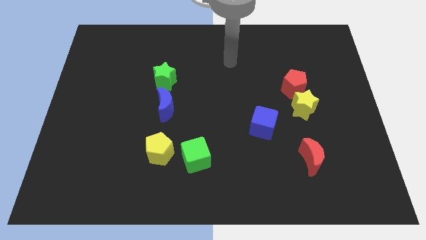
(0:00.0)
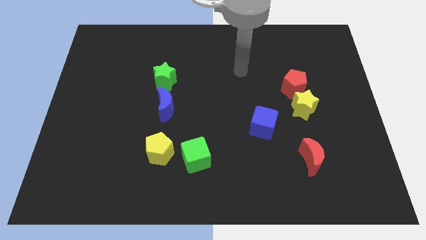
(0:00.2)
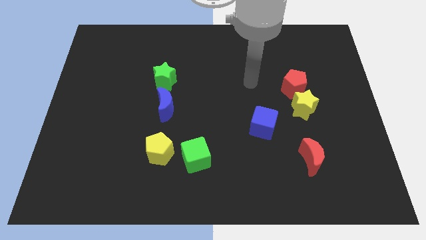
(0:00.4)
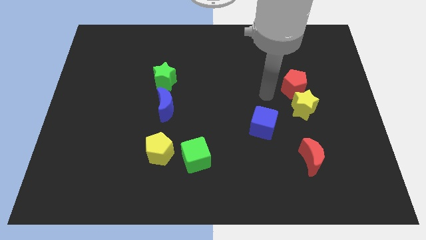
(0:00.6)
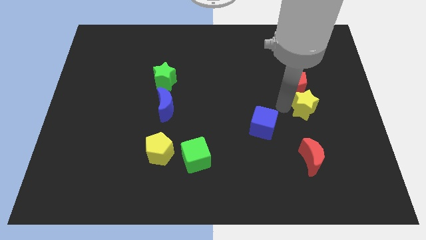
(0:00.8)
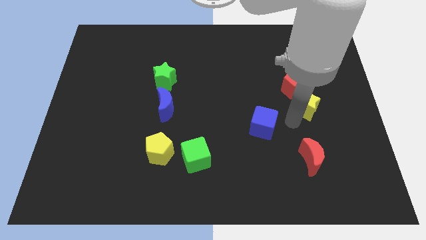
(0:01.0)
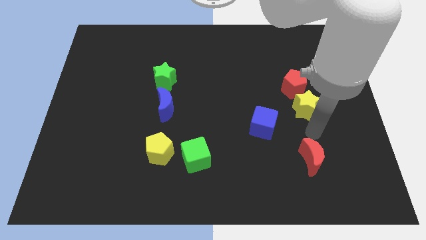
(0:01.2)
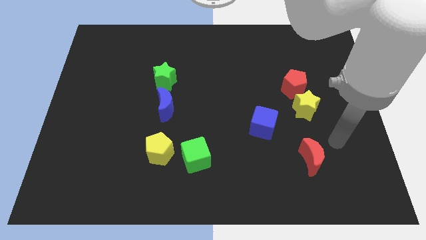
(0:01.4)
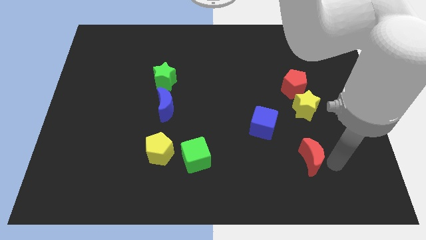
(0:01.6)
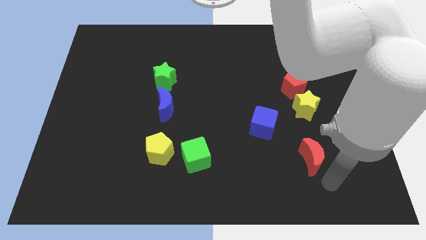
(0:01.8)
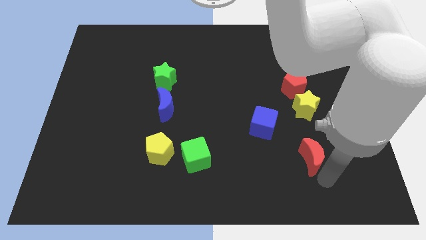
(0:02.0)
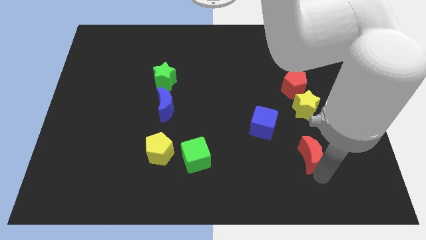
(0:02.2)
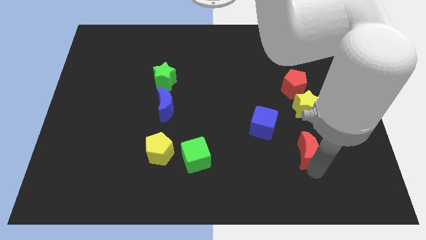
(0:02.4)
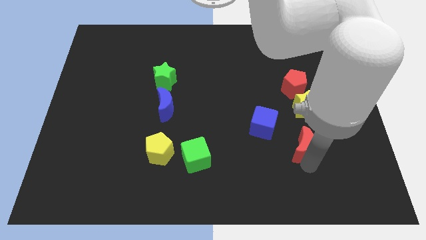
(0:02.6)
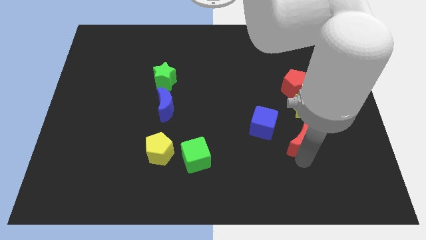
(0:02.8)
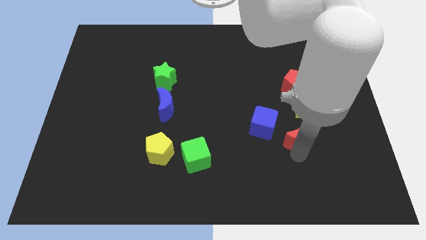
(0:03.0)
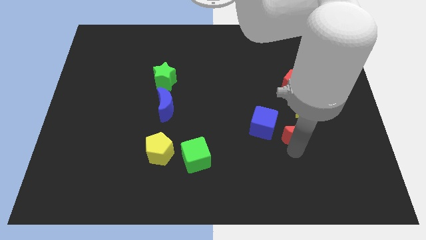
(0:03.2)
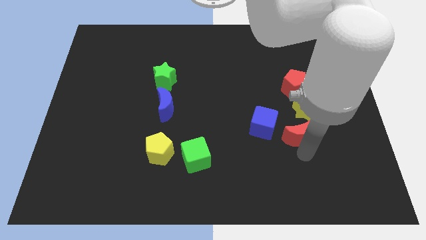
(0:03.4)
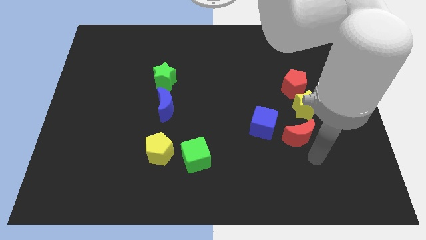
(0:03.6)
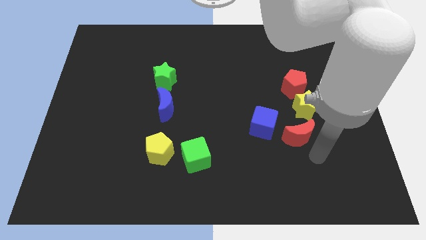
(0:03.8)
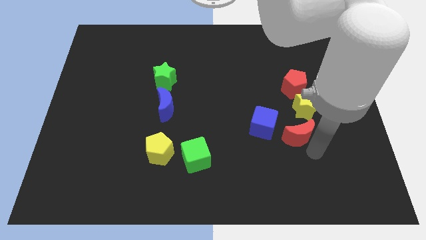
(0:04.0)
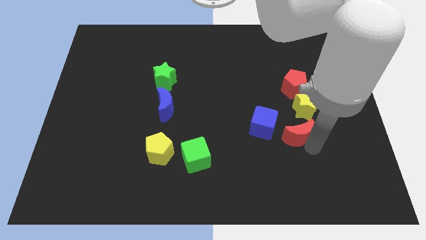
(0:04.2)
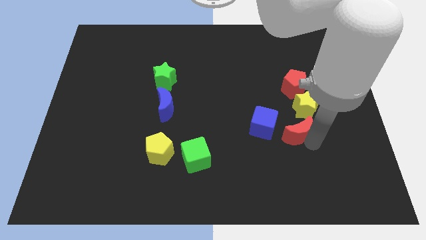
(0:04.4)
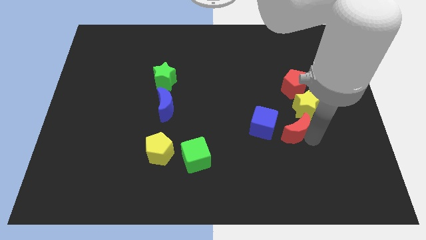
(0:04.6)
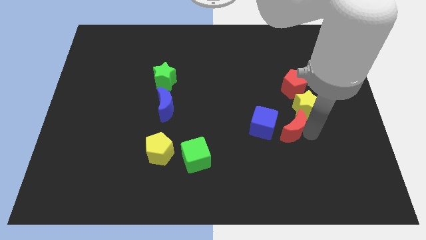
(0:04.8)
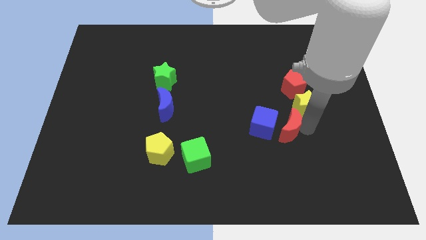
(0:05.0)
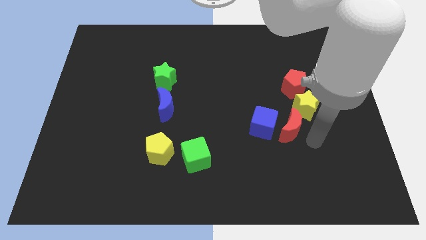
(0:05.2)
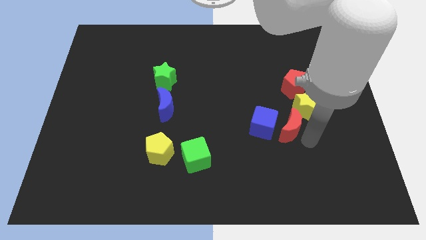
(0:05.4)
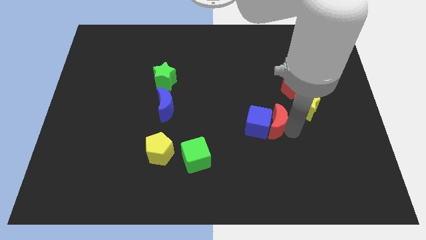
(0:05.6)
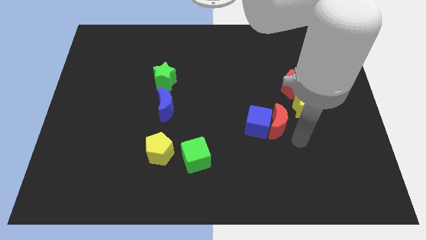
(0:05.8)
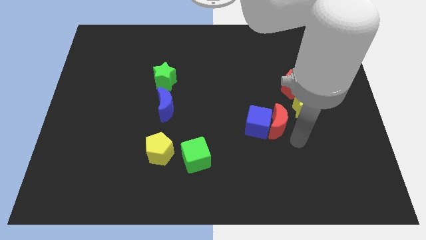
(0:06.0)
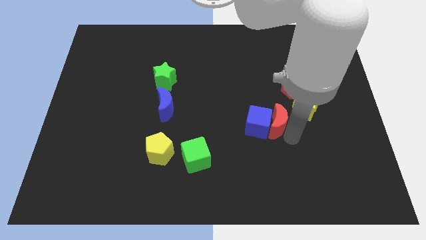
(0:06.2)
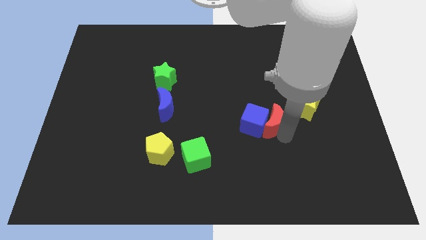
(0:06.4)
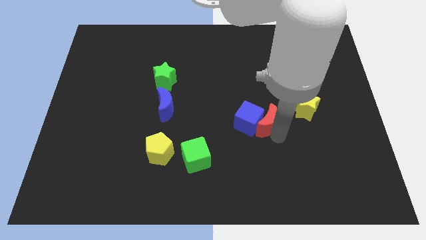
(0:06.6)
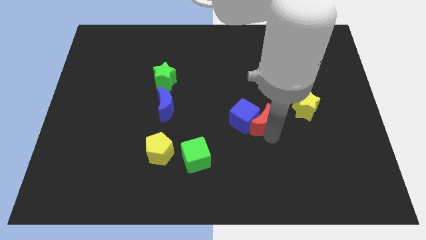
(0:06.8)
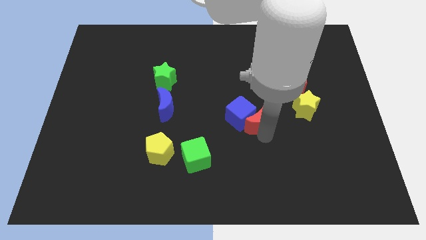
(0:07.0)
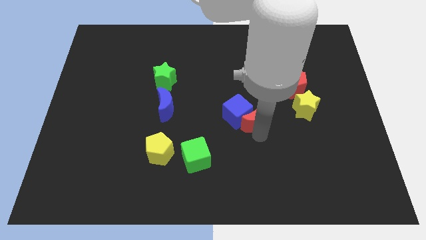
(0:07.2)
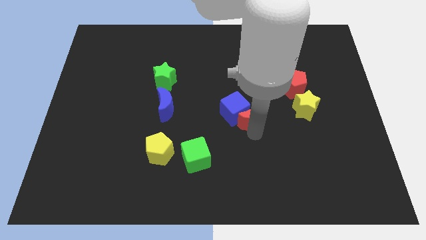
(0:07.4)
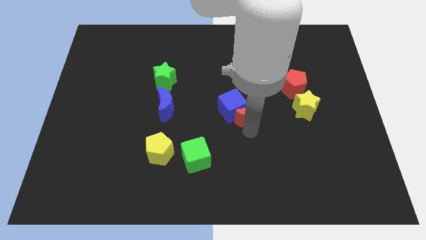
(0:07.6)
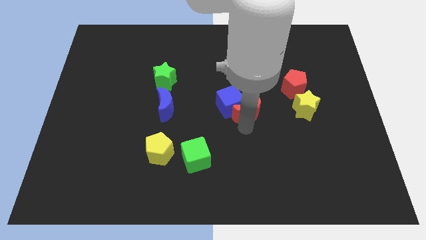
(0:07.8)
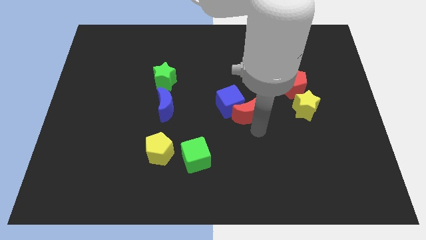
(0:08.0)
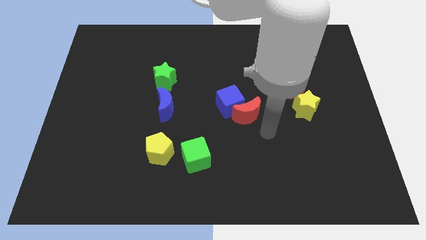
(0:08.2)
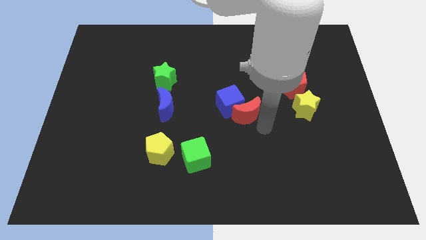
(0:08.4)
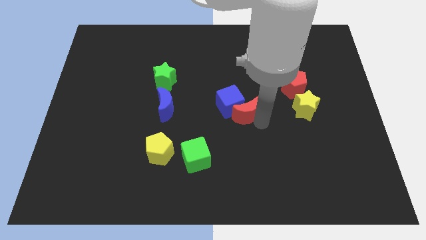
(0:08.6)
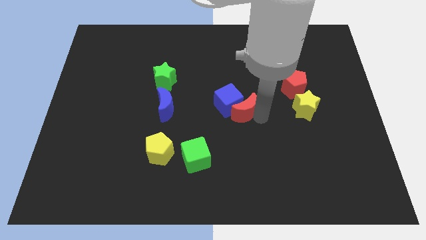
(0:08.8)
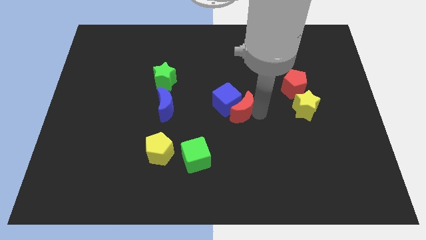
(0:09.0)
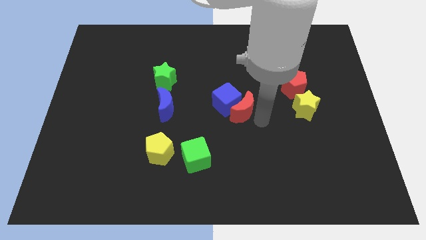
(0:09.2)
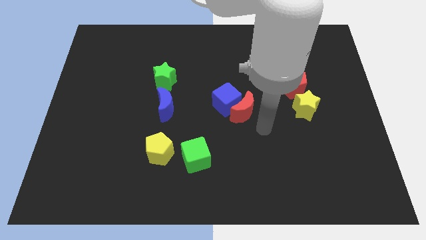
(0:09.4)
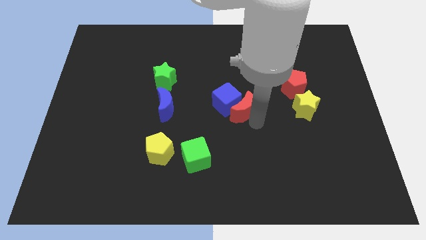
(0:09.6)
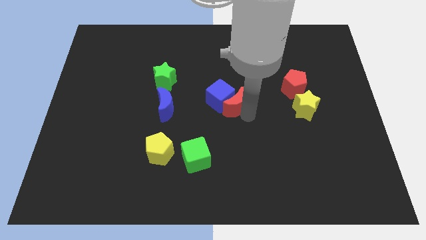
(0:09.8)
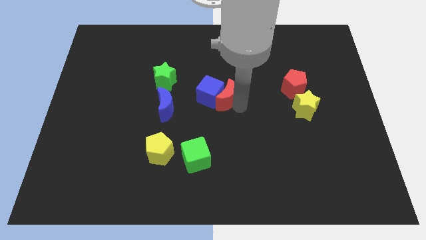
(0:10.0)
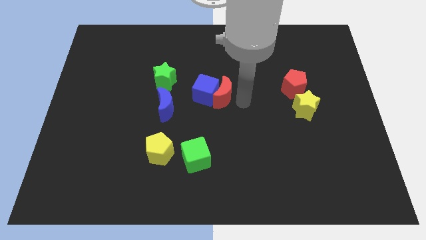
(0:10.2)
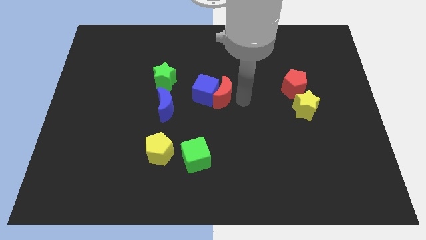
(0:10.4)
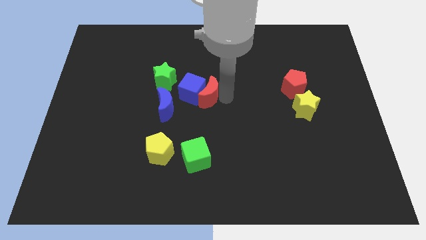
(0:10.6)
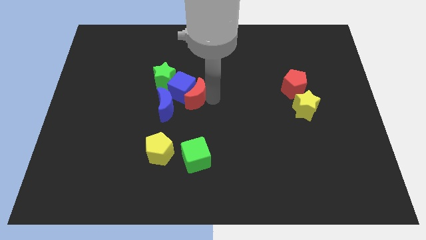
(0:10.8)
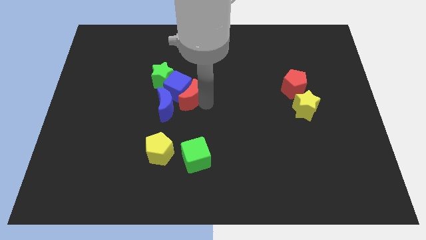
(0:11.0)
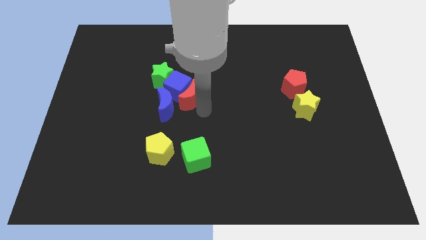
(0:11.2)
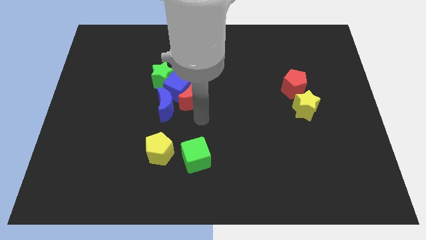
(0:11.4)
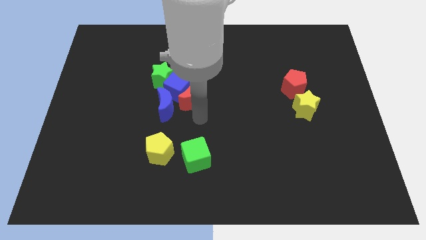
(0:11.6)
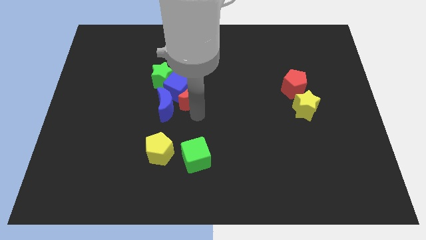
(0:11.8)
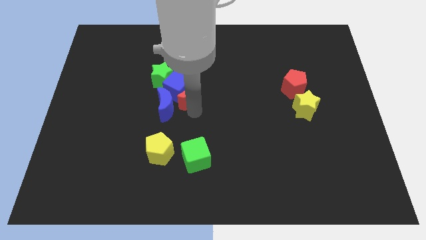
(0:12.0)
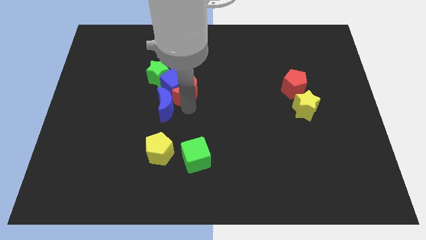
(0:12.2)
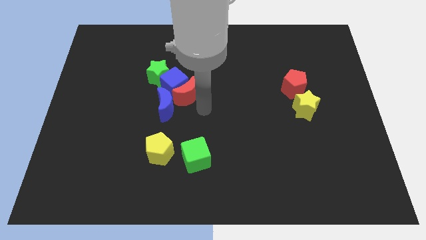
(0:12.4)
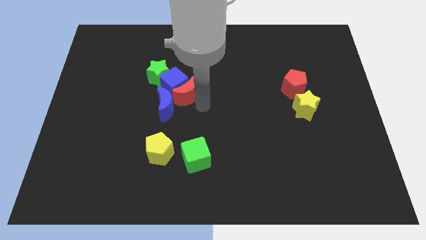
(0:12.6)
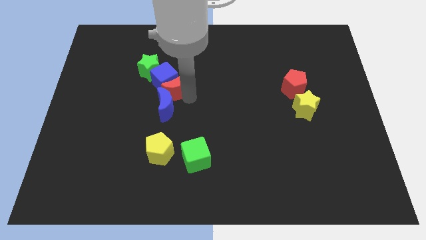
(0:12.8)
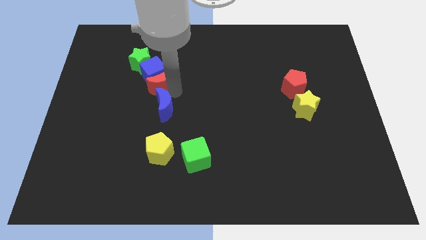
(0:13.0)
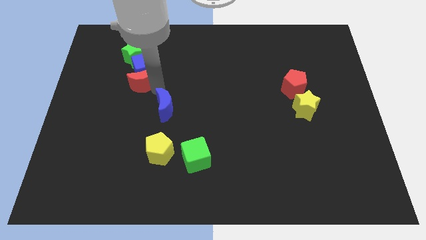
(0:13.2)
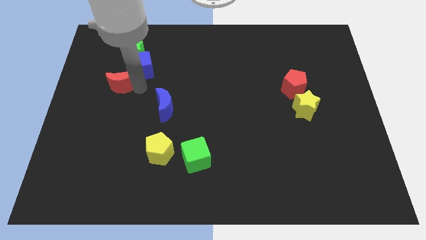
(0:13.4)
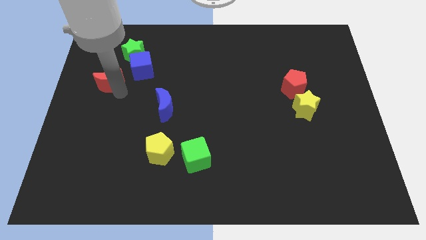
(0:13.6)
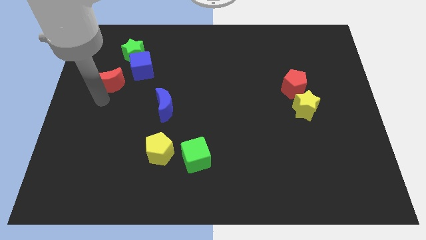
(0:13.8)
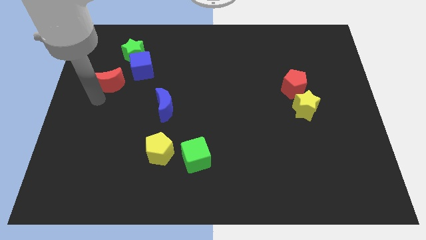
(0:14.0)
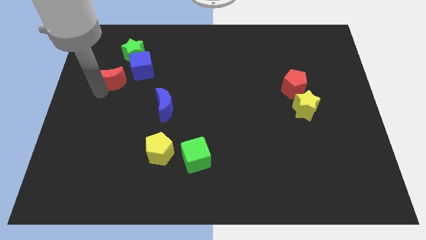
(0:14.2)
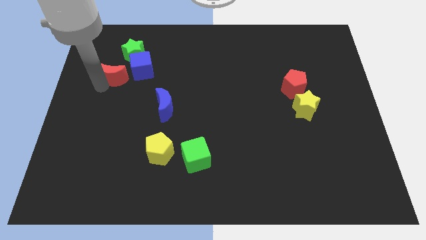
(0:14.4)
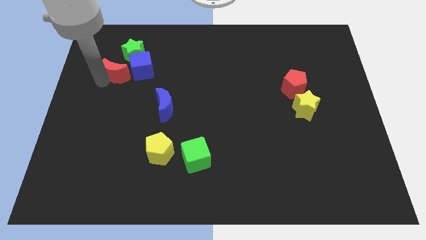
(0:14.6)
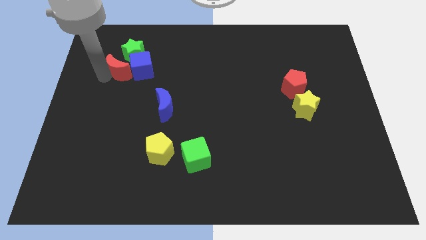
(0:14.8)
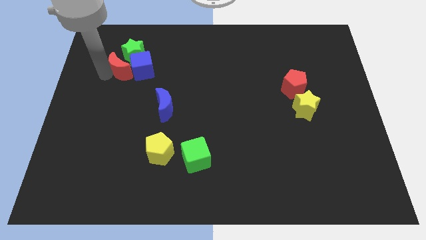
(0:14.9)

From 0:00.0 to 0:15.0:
move the red moon close to the green star
